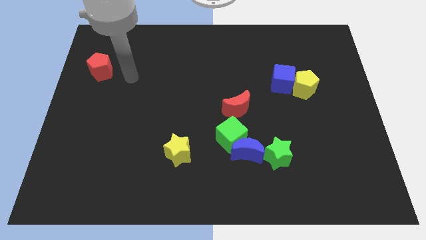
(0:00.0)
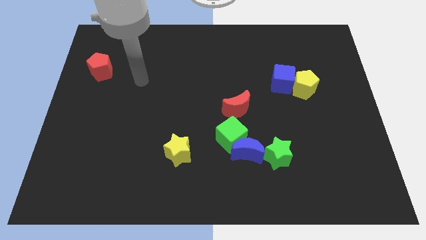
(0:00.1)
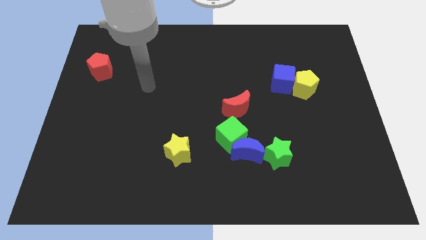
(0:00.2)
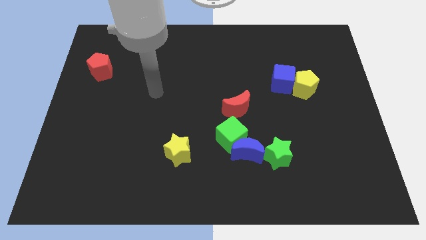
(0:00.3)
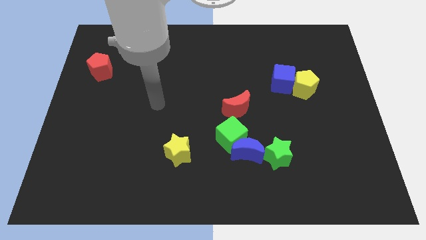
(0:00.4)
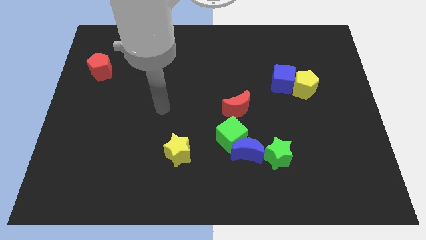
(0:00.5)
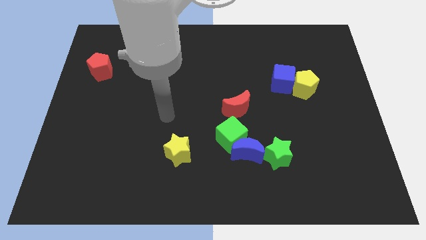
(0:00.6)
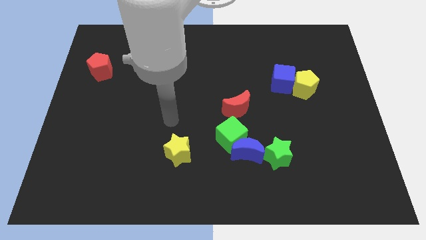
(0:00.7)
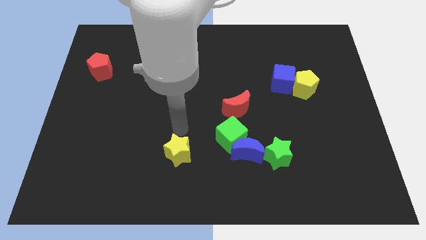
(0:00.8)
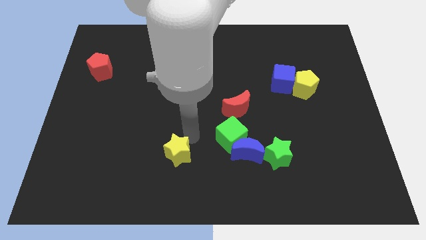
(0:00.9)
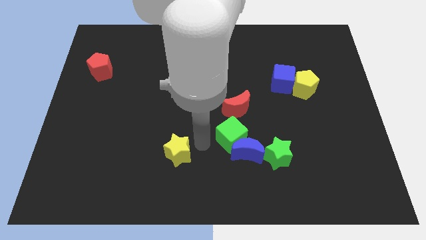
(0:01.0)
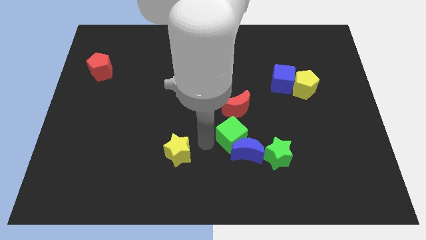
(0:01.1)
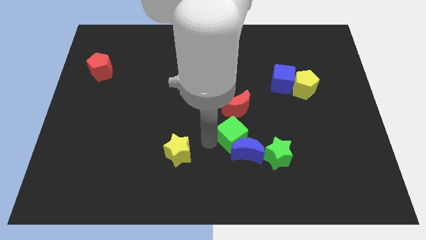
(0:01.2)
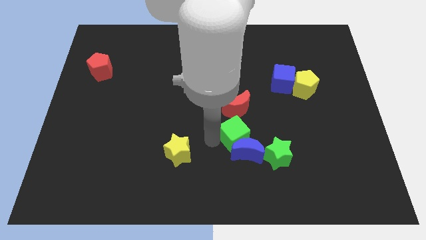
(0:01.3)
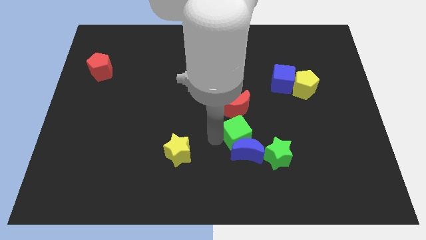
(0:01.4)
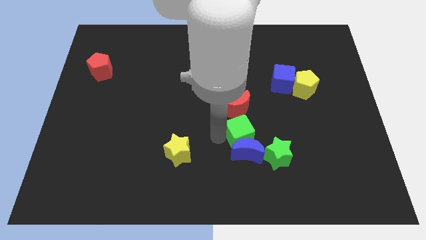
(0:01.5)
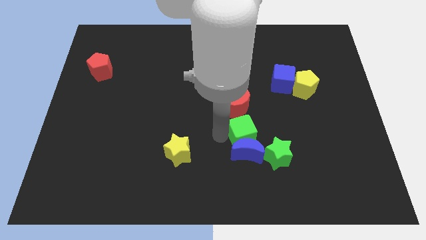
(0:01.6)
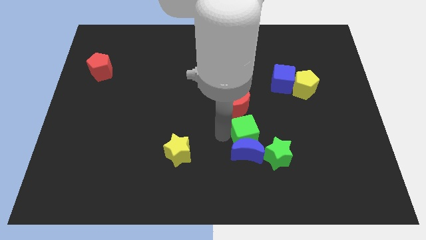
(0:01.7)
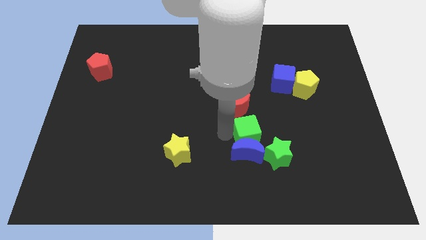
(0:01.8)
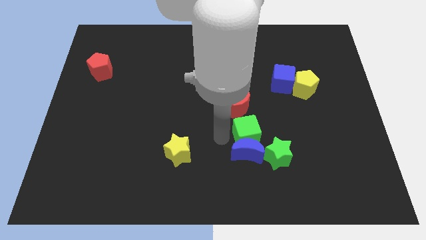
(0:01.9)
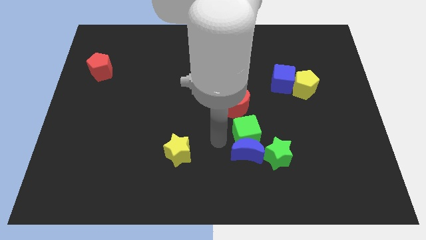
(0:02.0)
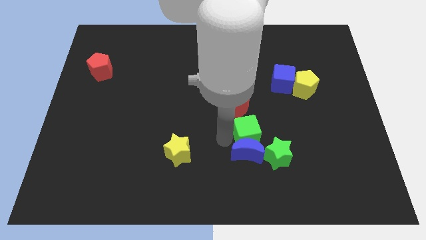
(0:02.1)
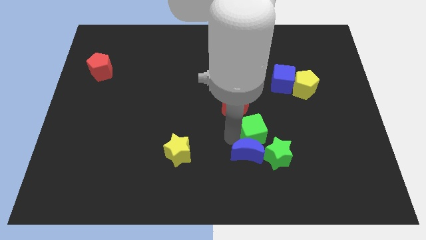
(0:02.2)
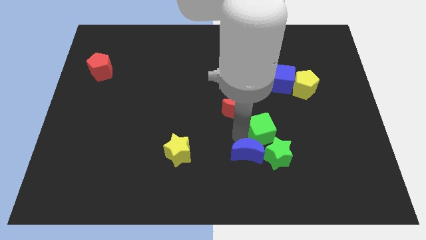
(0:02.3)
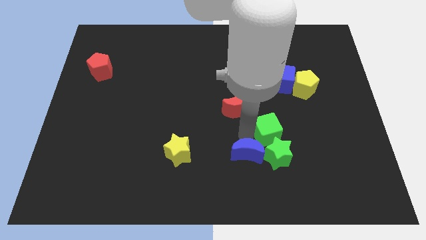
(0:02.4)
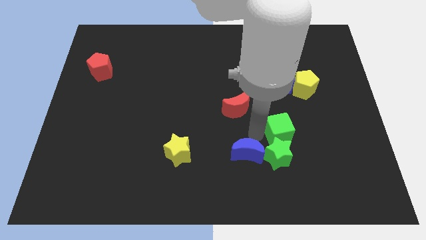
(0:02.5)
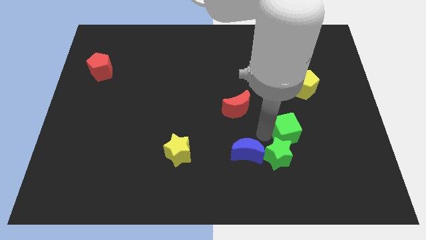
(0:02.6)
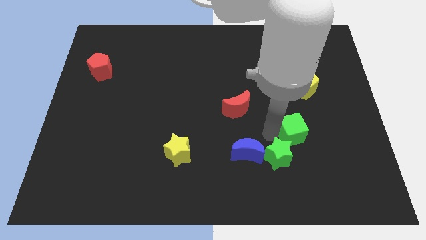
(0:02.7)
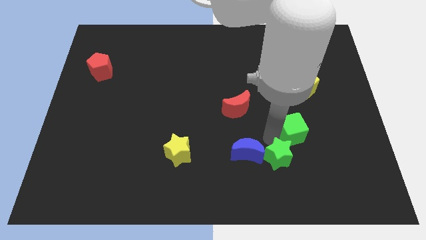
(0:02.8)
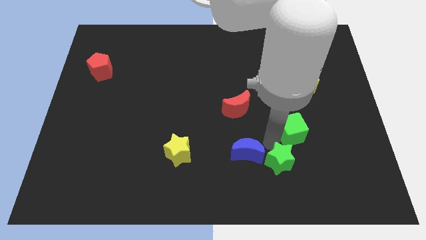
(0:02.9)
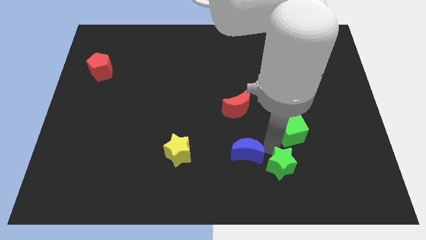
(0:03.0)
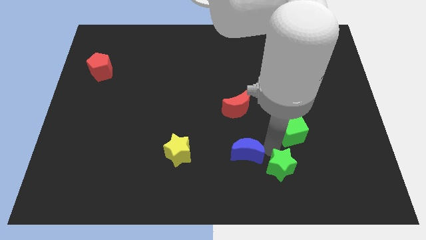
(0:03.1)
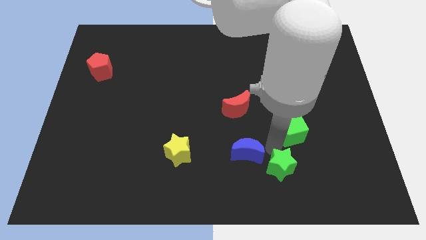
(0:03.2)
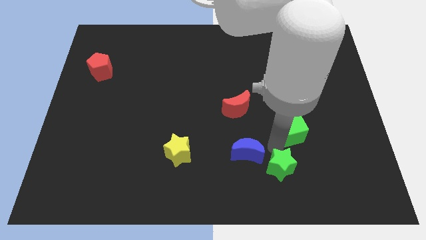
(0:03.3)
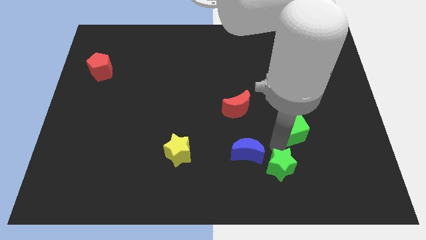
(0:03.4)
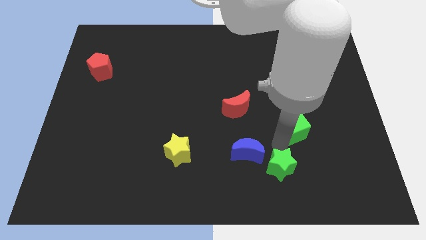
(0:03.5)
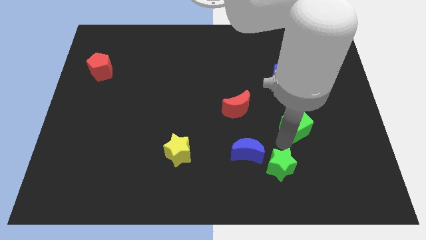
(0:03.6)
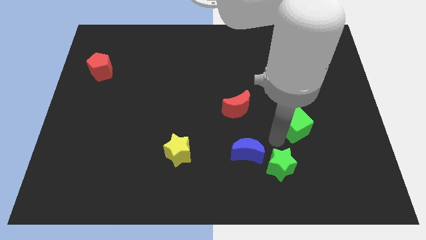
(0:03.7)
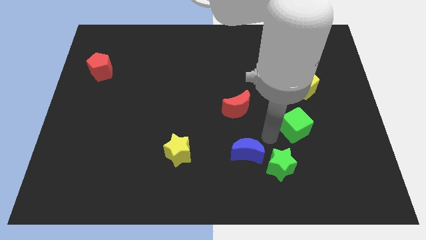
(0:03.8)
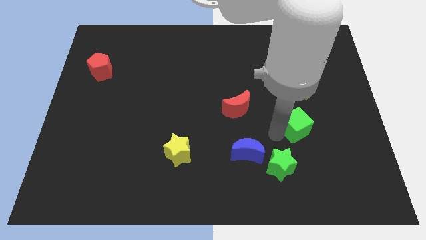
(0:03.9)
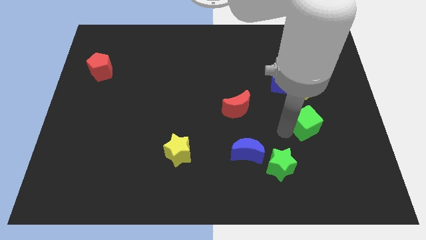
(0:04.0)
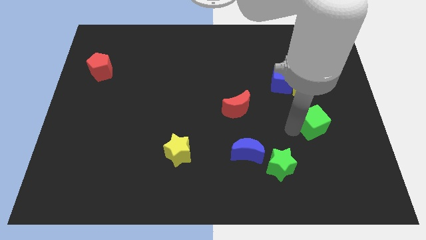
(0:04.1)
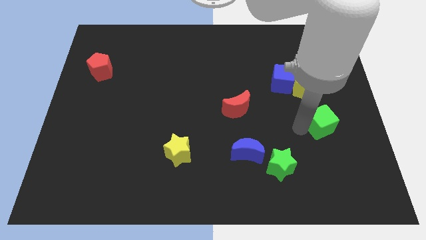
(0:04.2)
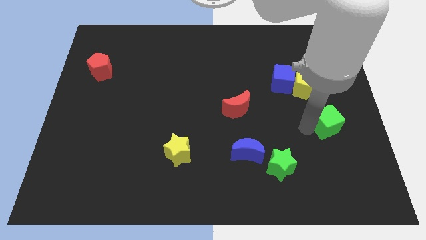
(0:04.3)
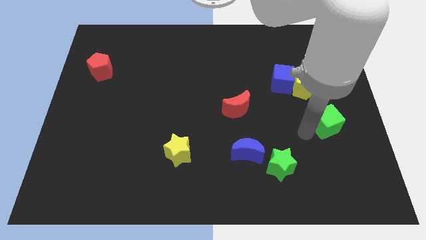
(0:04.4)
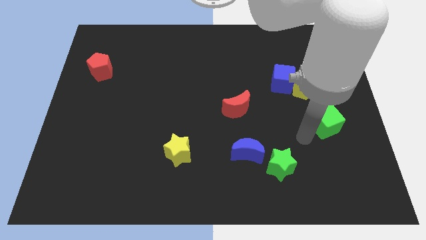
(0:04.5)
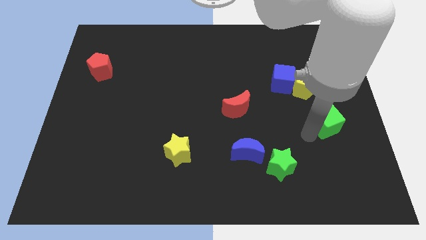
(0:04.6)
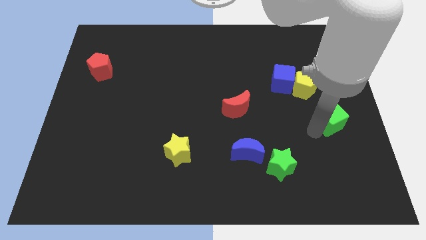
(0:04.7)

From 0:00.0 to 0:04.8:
push the green cube to the right side of the board

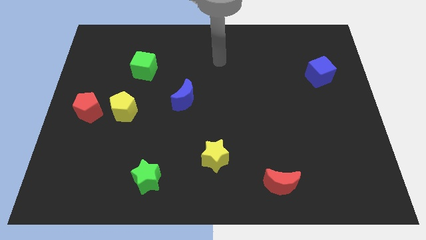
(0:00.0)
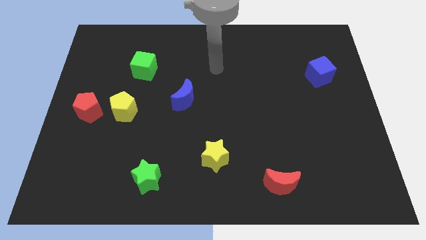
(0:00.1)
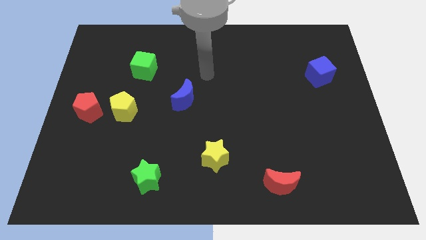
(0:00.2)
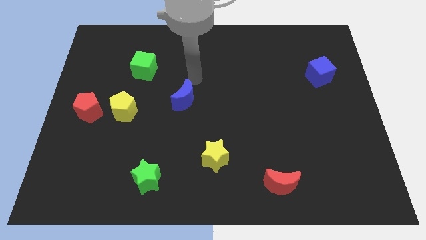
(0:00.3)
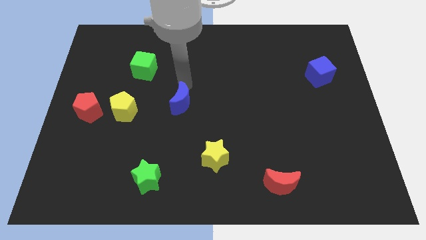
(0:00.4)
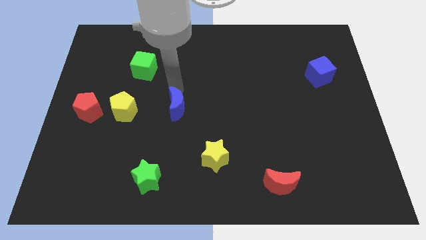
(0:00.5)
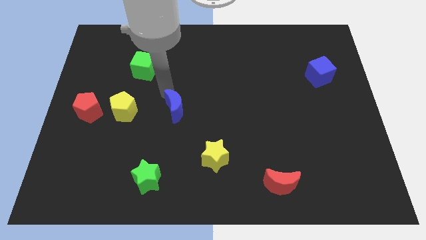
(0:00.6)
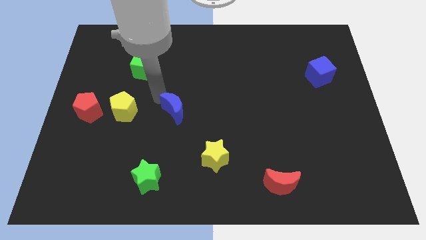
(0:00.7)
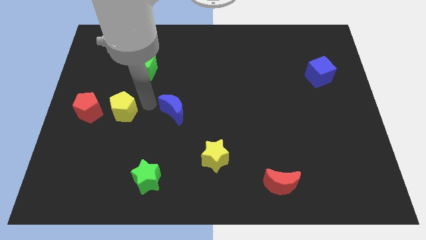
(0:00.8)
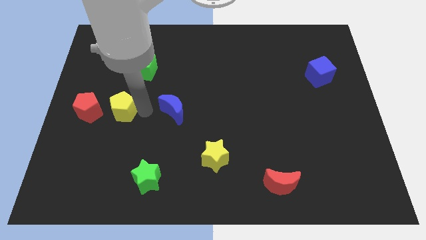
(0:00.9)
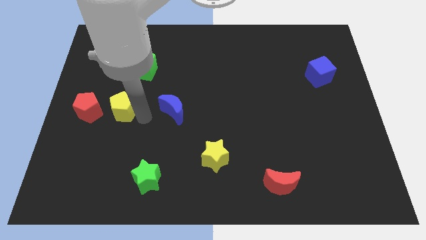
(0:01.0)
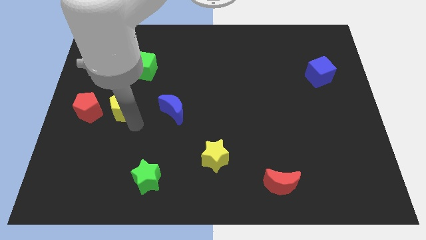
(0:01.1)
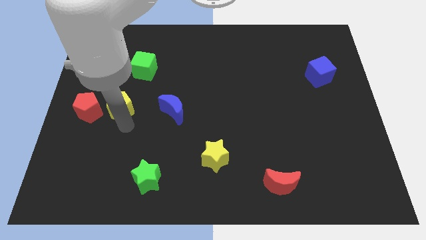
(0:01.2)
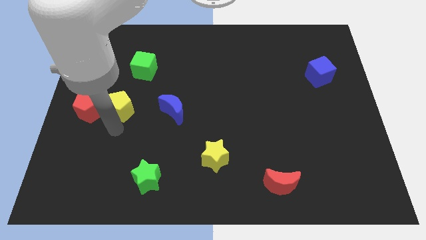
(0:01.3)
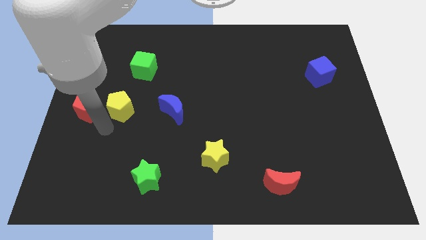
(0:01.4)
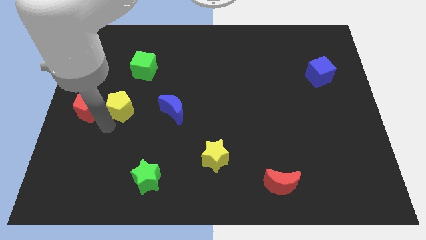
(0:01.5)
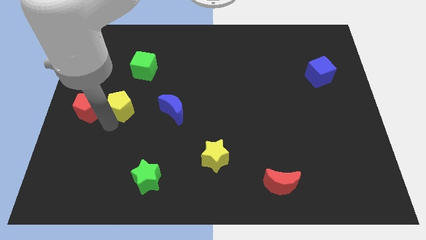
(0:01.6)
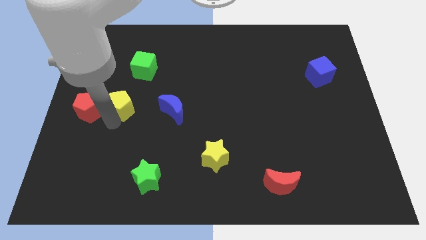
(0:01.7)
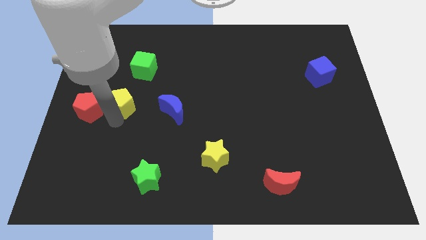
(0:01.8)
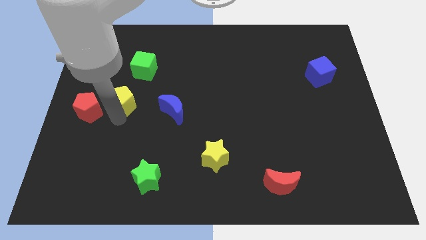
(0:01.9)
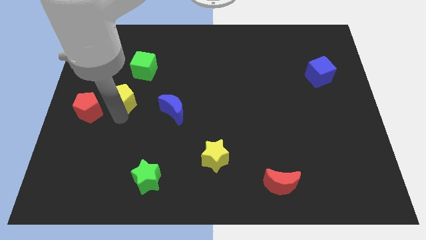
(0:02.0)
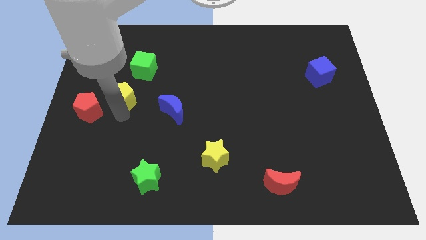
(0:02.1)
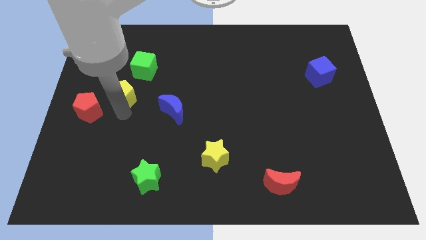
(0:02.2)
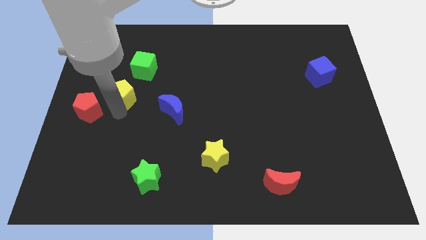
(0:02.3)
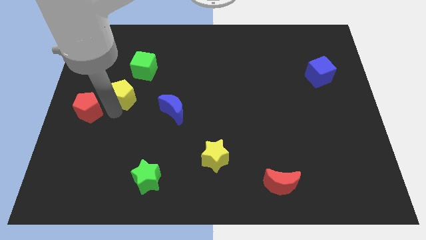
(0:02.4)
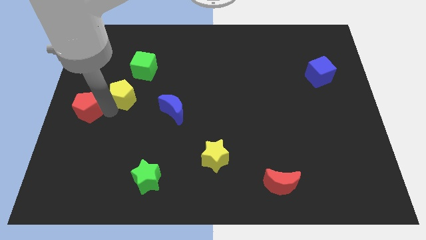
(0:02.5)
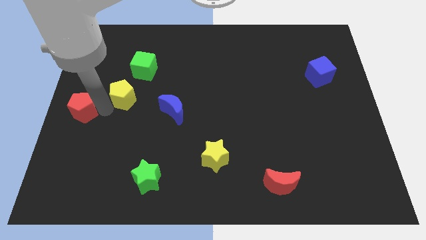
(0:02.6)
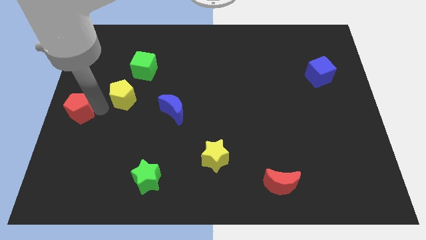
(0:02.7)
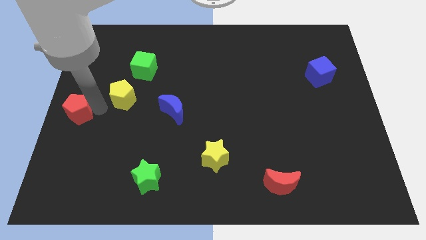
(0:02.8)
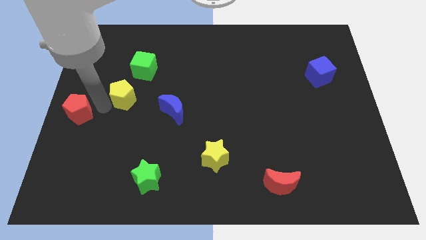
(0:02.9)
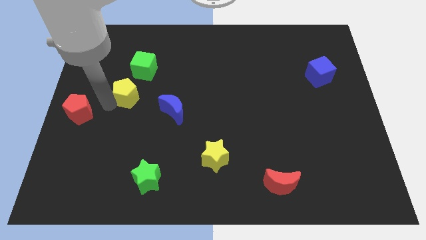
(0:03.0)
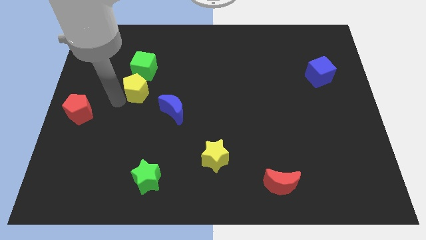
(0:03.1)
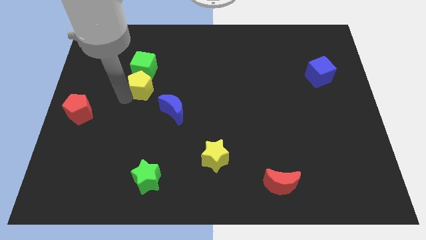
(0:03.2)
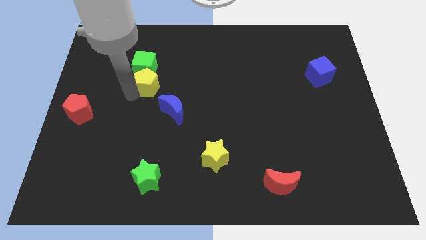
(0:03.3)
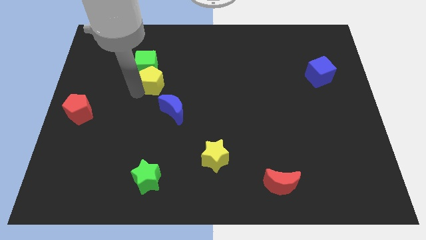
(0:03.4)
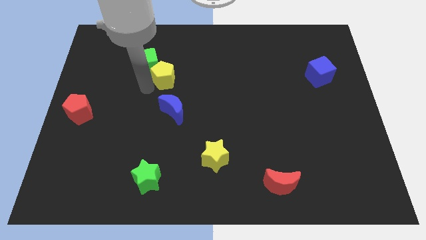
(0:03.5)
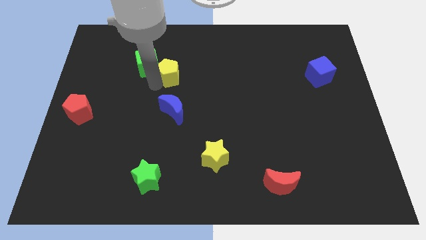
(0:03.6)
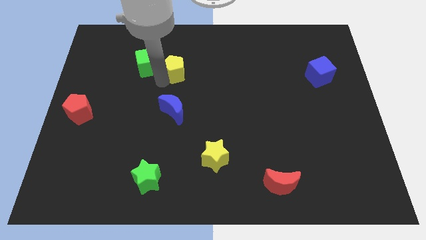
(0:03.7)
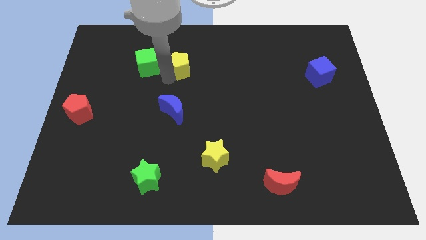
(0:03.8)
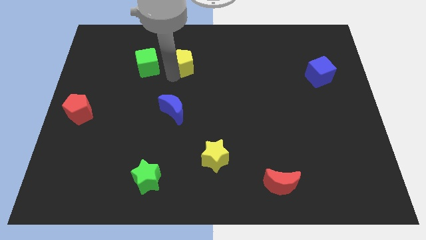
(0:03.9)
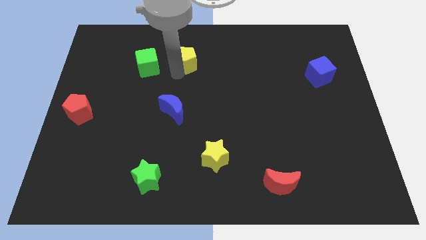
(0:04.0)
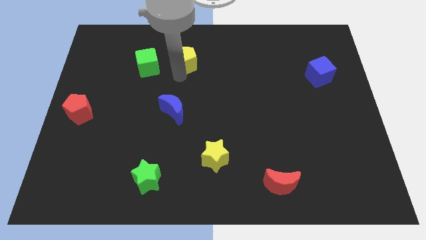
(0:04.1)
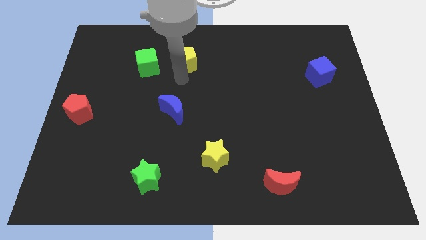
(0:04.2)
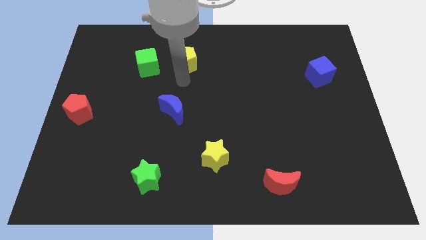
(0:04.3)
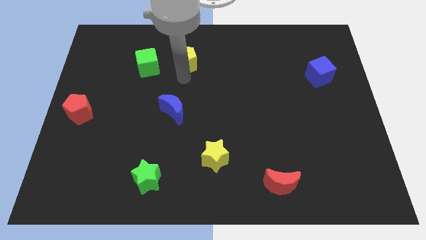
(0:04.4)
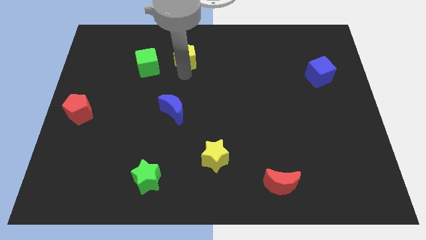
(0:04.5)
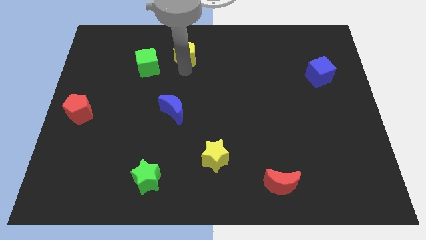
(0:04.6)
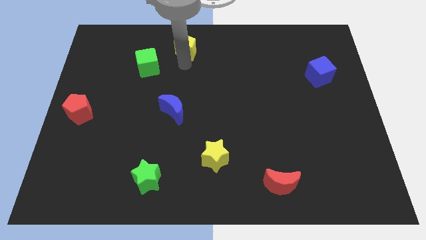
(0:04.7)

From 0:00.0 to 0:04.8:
push the yellow pentagon to the towards your base
